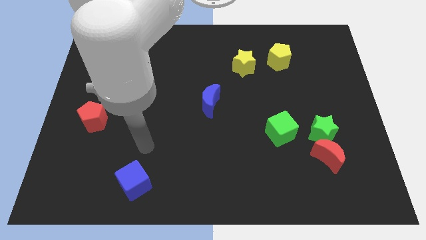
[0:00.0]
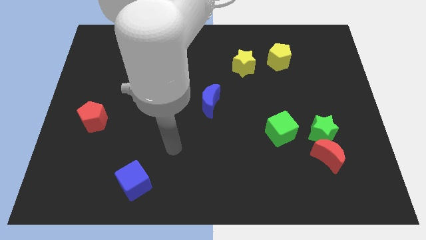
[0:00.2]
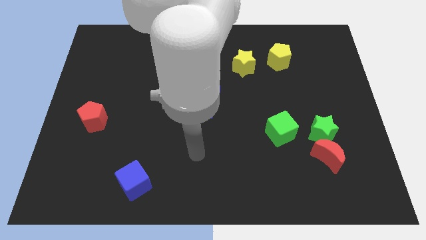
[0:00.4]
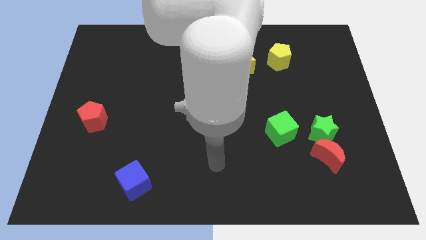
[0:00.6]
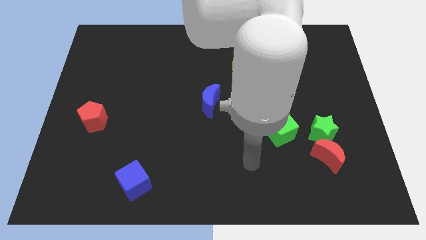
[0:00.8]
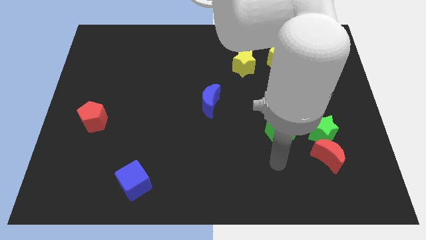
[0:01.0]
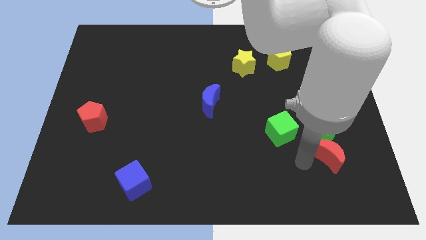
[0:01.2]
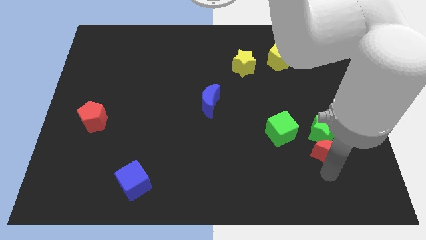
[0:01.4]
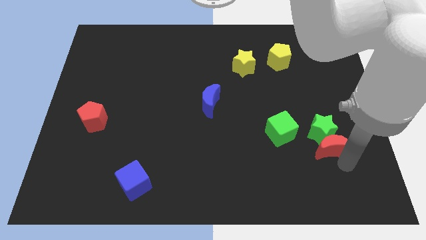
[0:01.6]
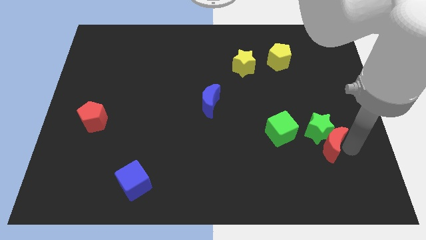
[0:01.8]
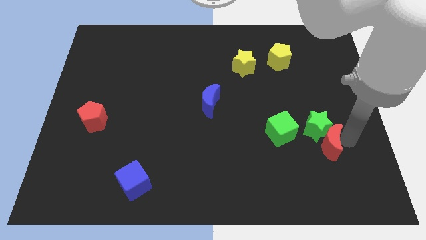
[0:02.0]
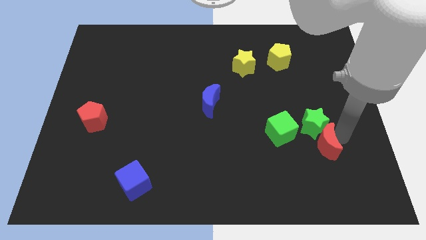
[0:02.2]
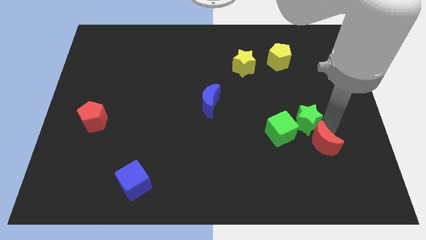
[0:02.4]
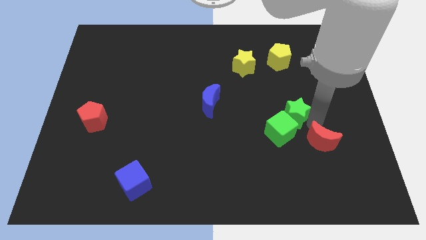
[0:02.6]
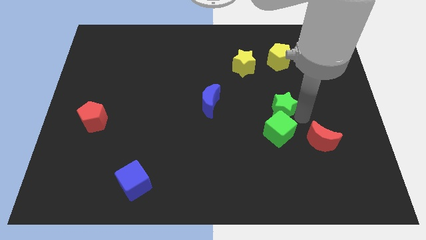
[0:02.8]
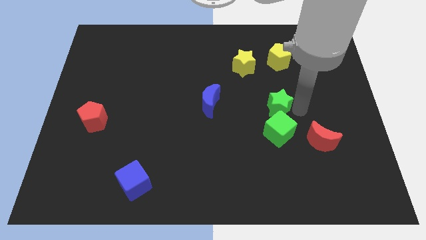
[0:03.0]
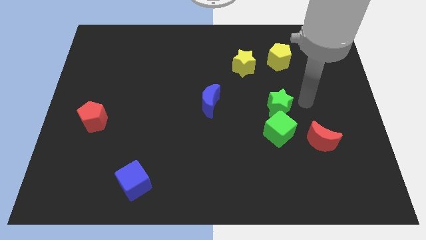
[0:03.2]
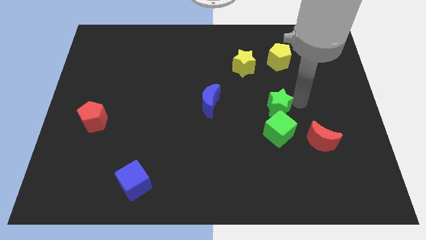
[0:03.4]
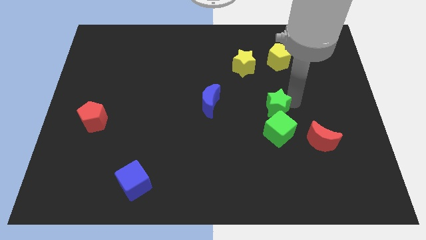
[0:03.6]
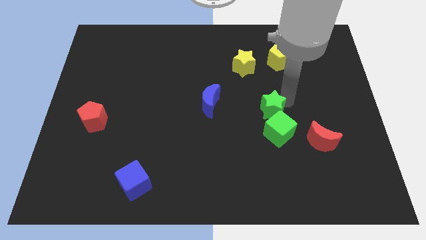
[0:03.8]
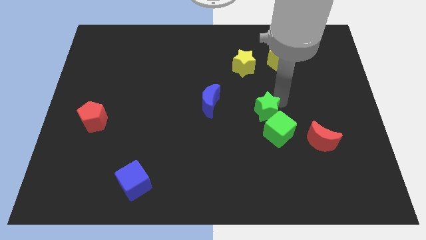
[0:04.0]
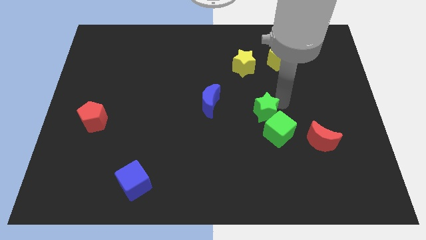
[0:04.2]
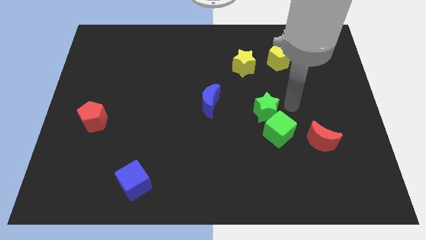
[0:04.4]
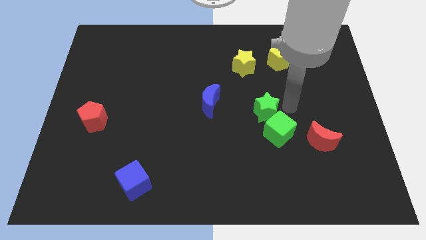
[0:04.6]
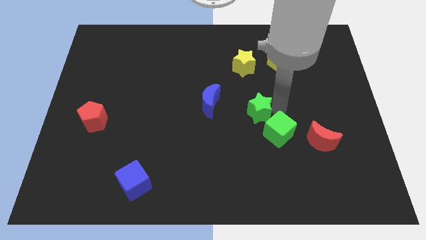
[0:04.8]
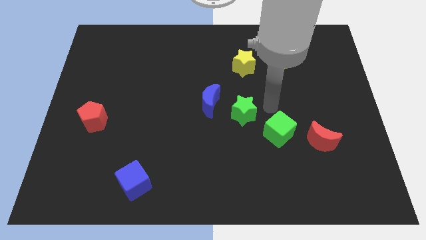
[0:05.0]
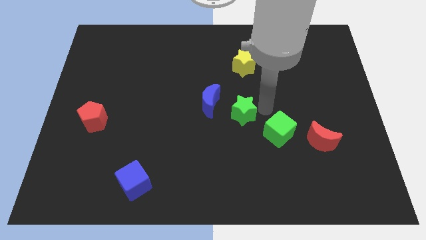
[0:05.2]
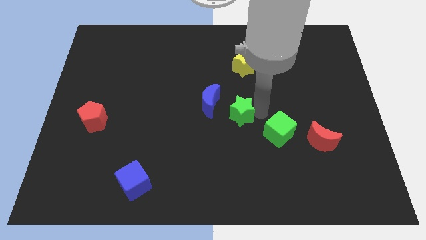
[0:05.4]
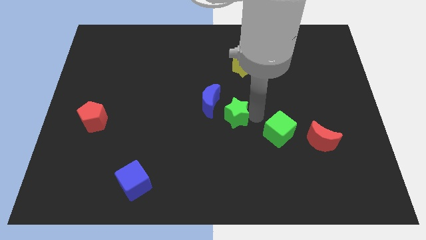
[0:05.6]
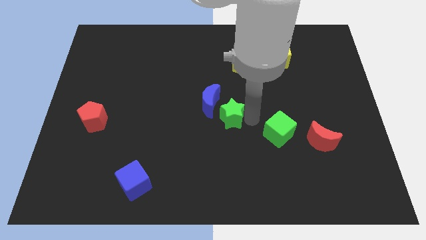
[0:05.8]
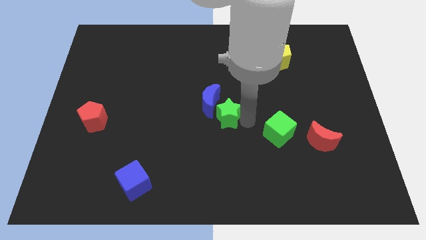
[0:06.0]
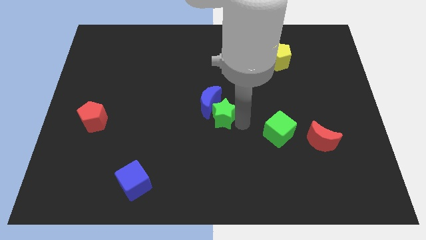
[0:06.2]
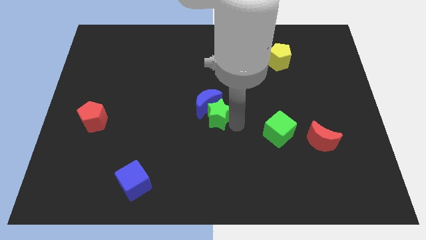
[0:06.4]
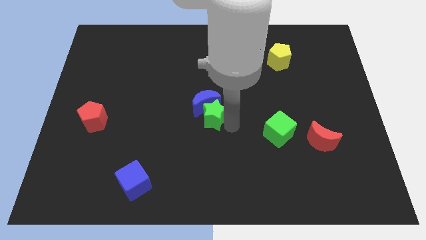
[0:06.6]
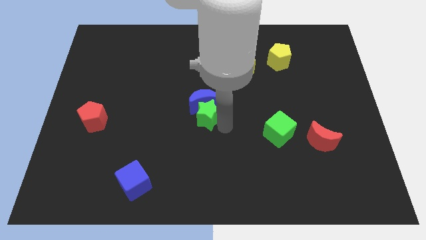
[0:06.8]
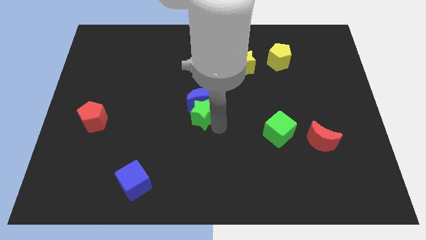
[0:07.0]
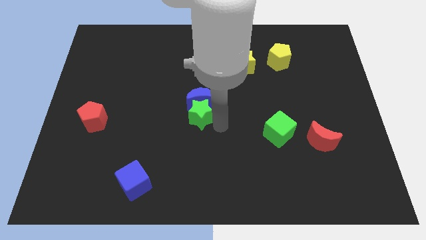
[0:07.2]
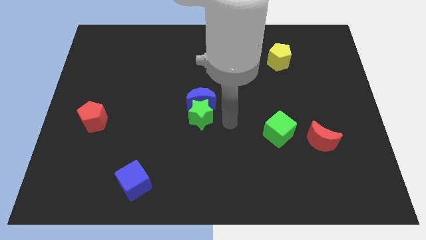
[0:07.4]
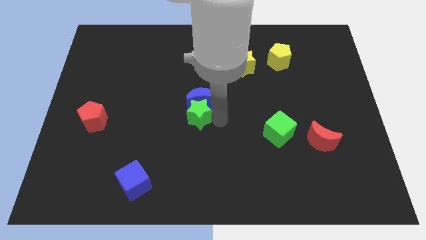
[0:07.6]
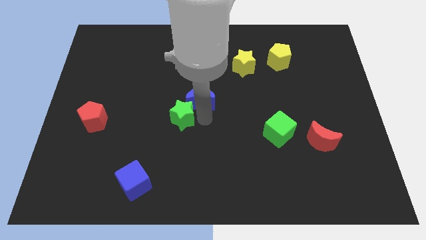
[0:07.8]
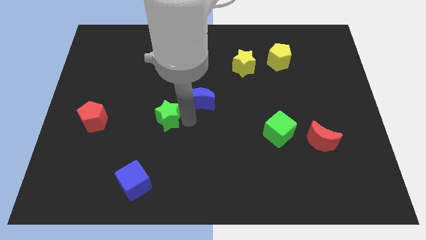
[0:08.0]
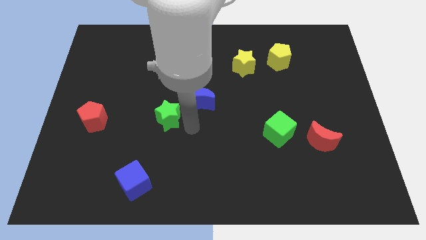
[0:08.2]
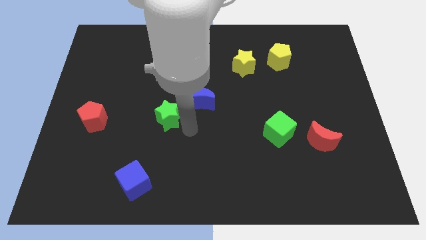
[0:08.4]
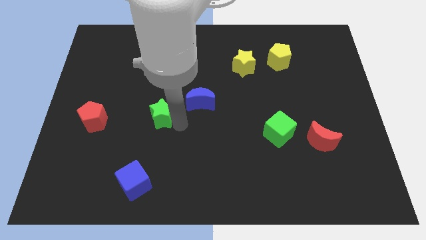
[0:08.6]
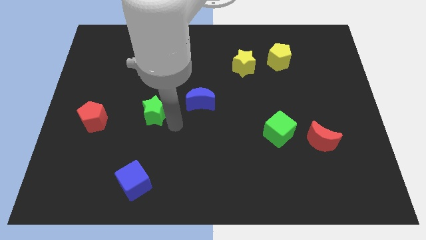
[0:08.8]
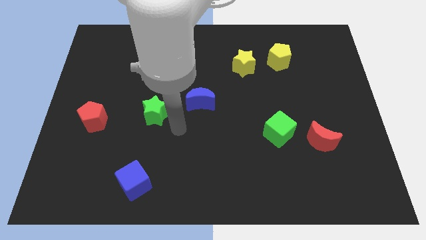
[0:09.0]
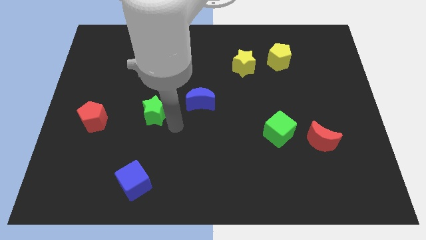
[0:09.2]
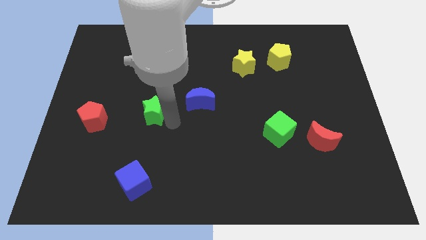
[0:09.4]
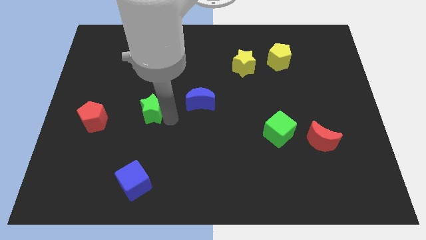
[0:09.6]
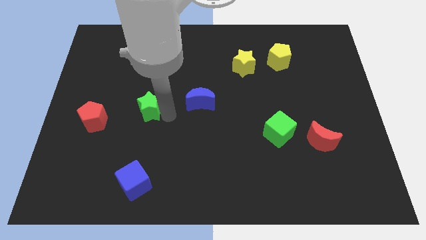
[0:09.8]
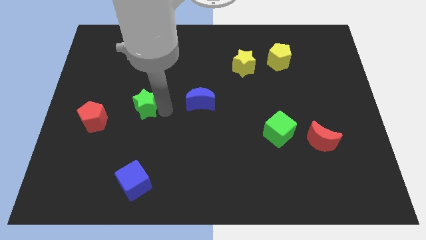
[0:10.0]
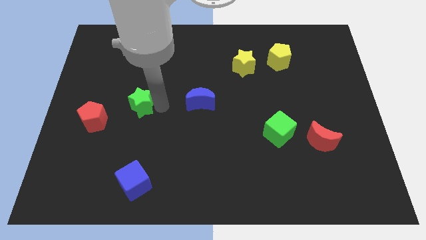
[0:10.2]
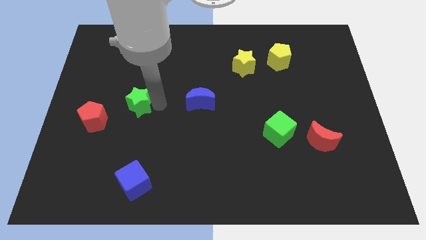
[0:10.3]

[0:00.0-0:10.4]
slide the green star to the top right side of the red pentagon

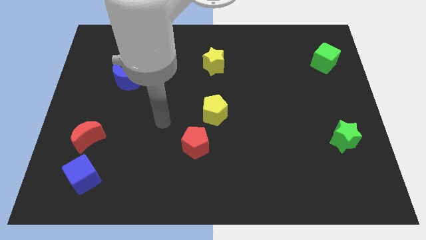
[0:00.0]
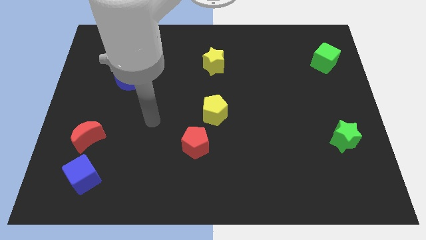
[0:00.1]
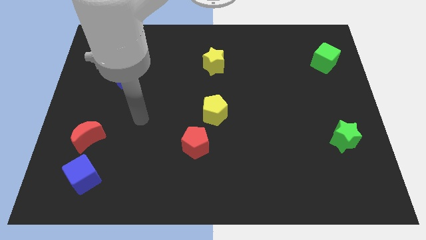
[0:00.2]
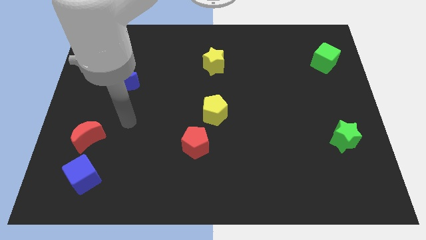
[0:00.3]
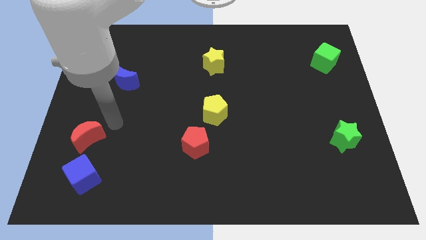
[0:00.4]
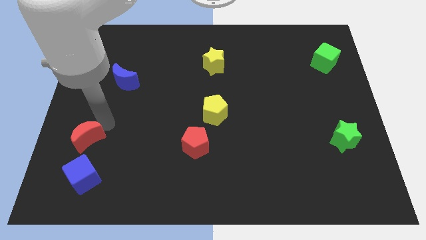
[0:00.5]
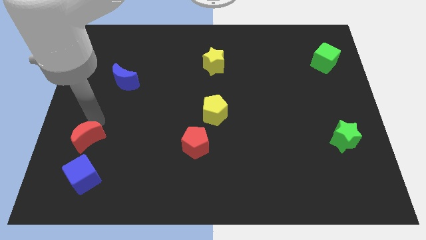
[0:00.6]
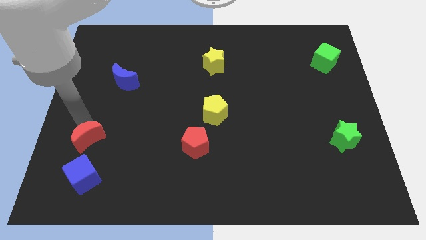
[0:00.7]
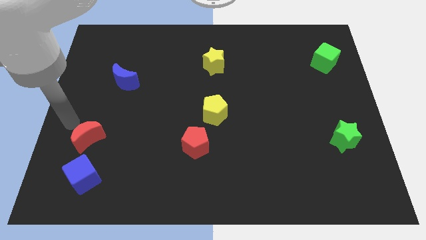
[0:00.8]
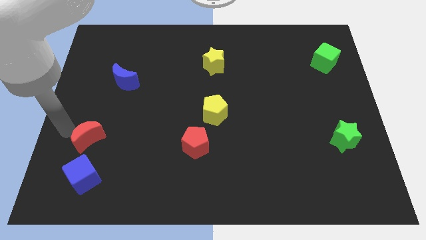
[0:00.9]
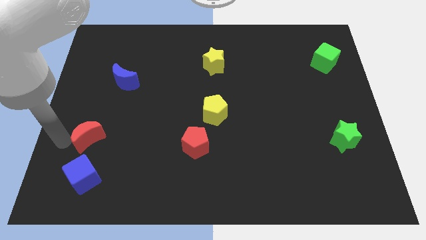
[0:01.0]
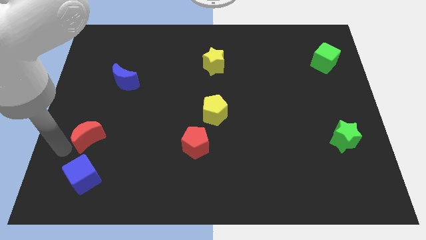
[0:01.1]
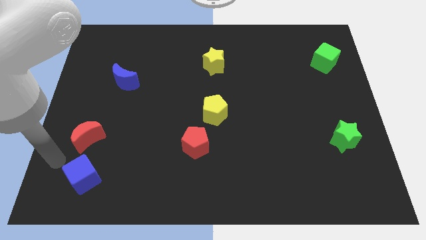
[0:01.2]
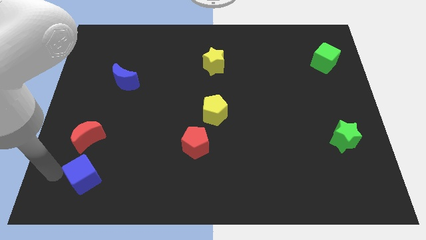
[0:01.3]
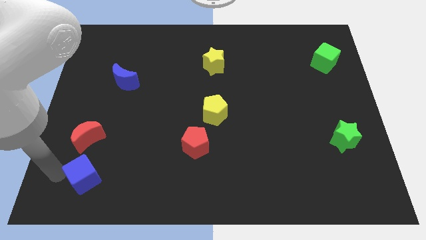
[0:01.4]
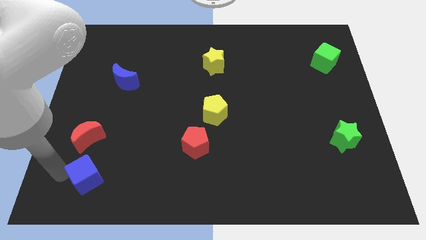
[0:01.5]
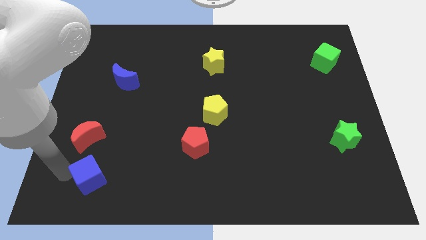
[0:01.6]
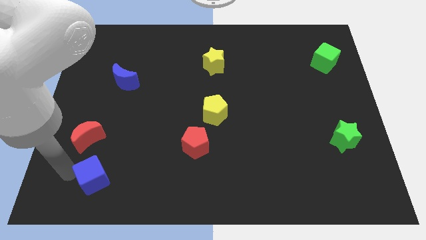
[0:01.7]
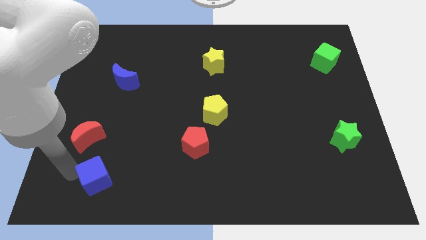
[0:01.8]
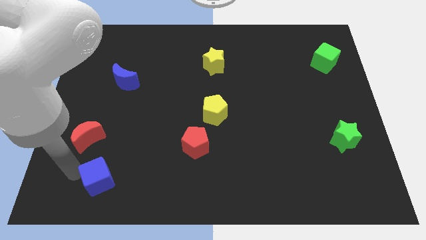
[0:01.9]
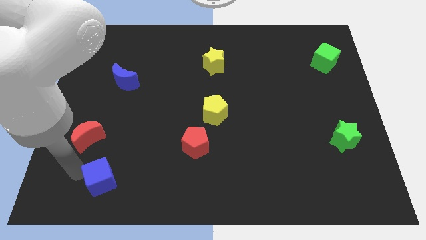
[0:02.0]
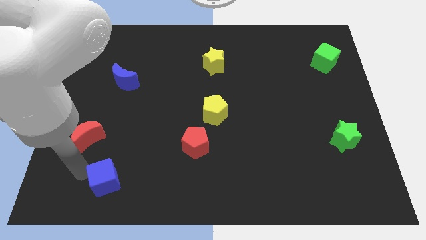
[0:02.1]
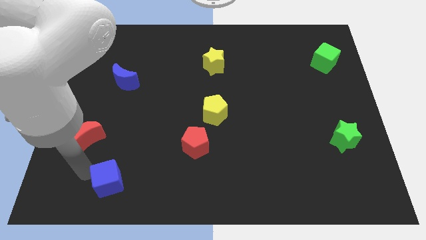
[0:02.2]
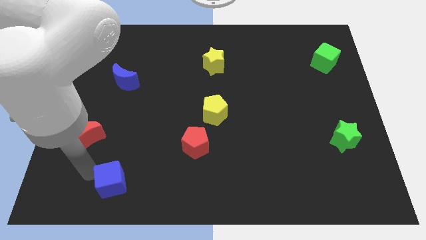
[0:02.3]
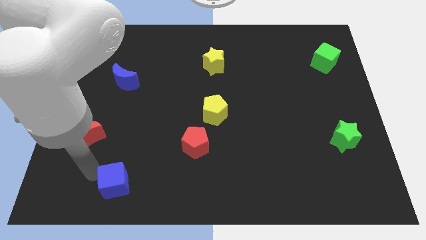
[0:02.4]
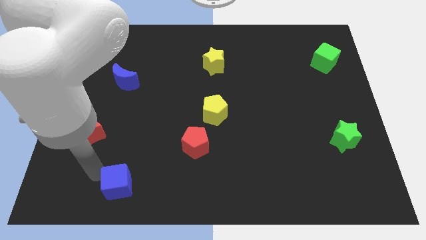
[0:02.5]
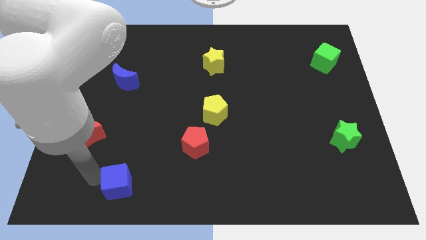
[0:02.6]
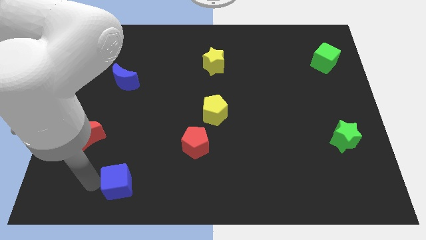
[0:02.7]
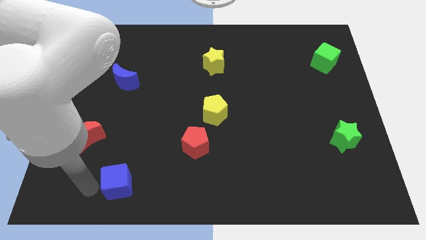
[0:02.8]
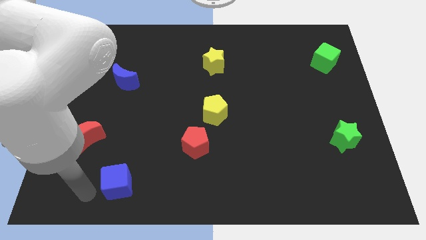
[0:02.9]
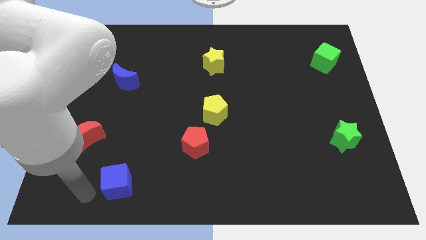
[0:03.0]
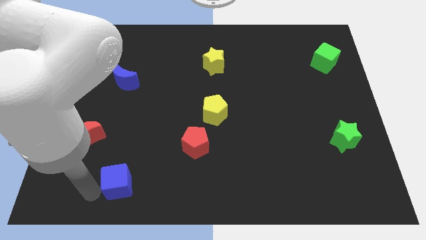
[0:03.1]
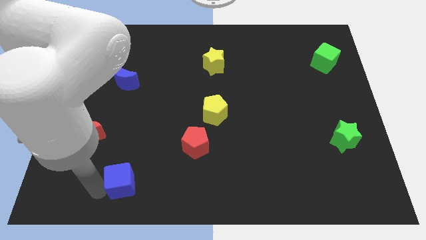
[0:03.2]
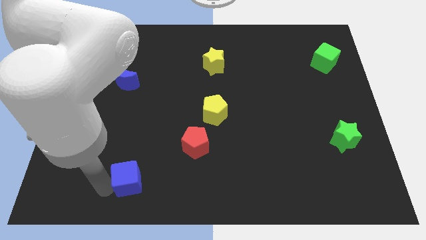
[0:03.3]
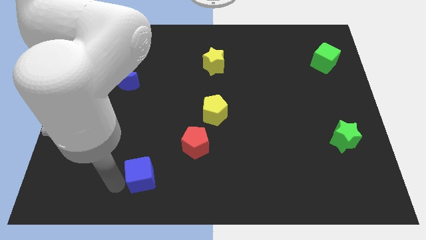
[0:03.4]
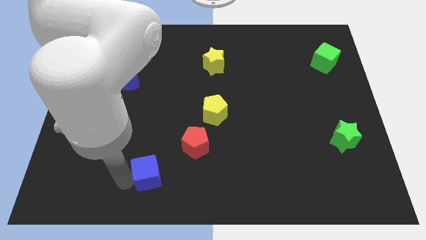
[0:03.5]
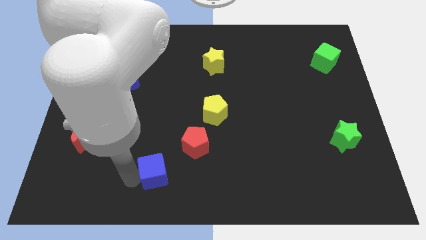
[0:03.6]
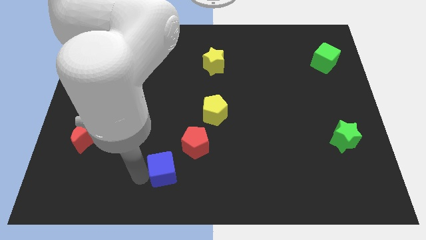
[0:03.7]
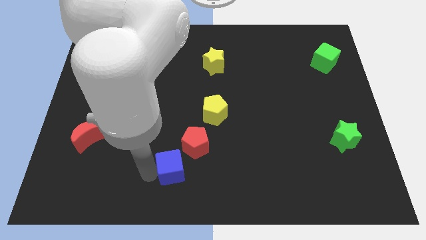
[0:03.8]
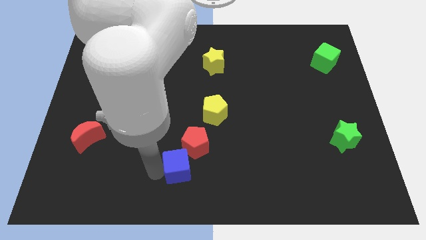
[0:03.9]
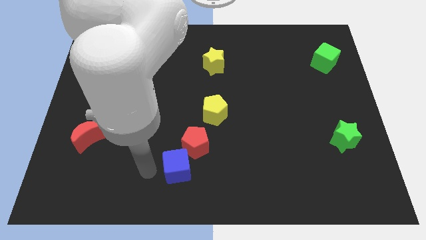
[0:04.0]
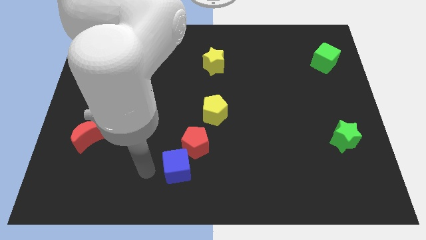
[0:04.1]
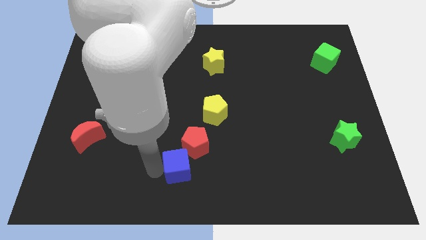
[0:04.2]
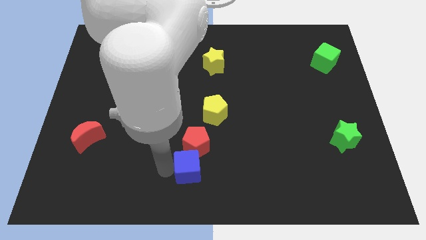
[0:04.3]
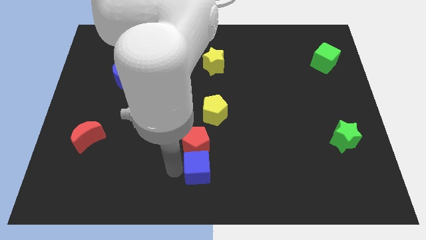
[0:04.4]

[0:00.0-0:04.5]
slide the blue cube diagonally down and to the right of the red pentagon
